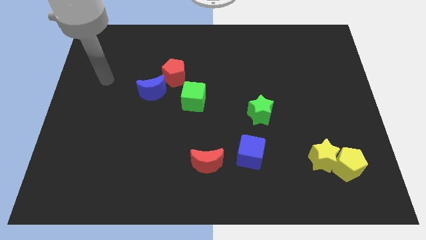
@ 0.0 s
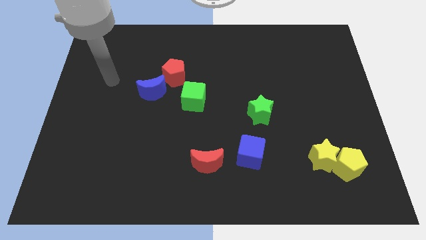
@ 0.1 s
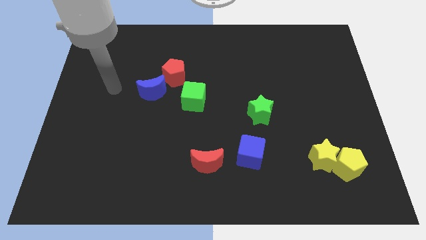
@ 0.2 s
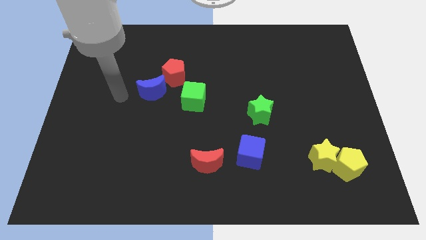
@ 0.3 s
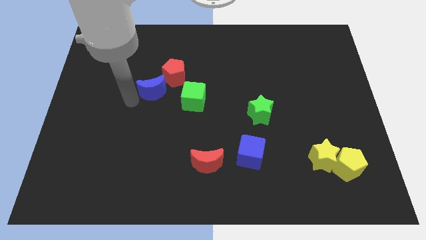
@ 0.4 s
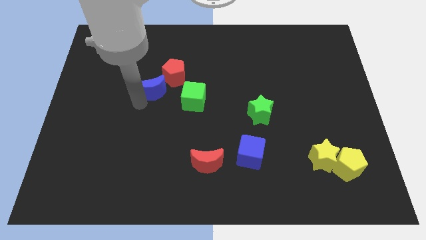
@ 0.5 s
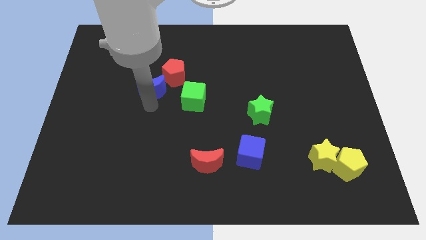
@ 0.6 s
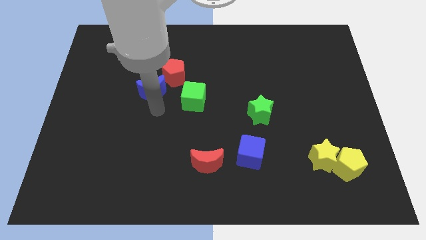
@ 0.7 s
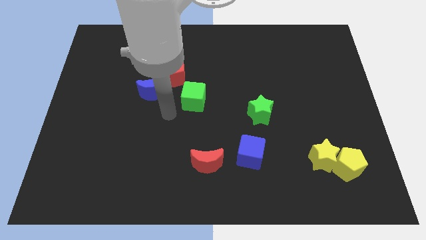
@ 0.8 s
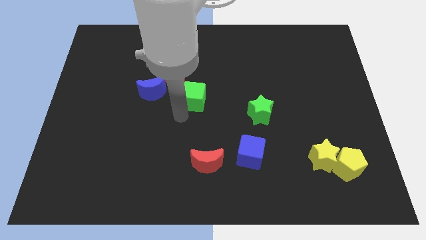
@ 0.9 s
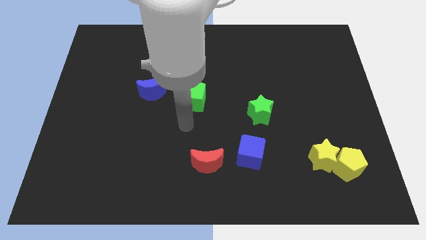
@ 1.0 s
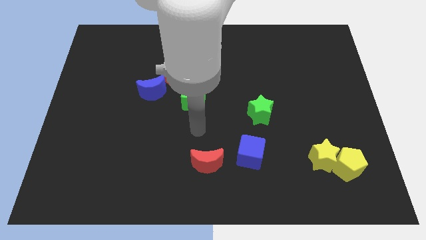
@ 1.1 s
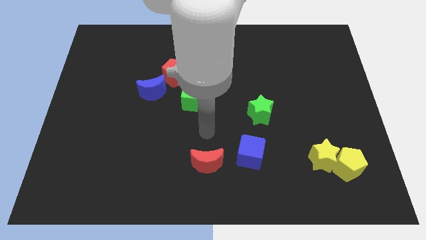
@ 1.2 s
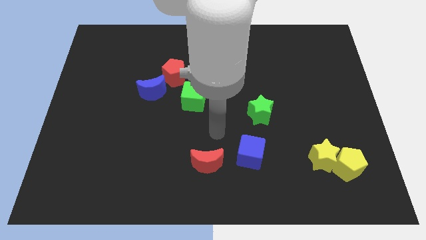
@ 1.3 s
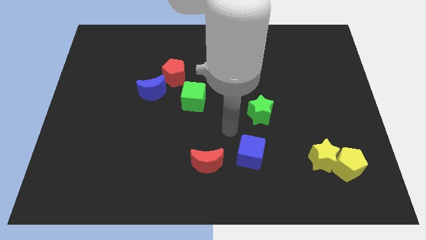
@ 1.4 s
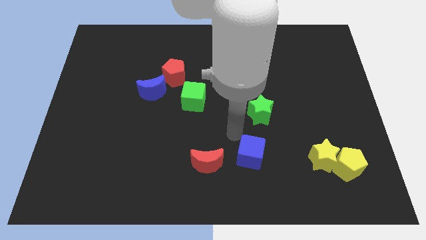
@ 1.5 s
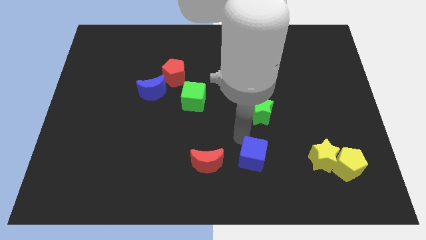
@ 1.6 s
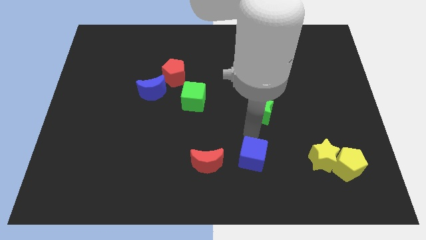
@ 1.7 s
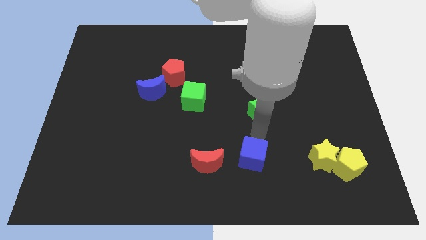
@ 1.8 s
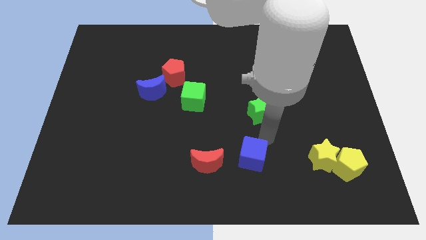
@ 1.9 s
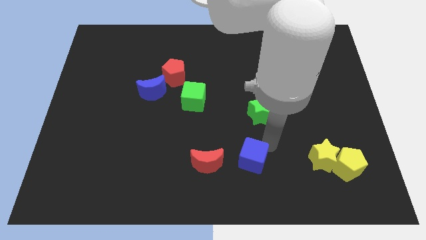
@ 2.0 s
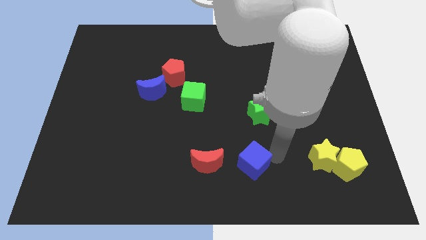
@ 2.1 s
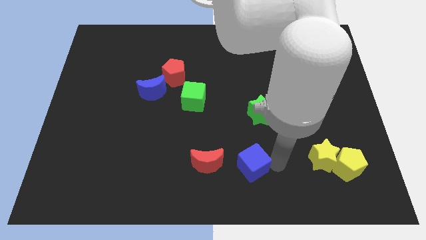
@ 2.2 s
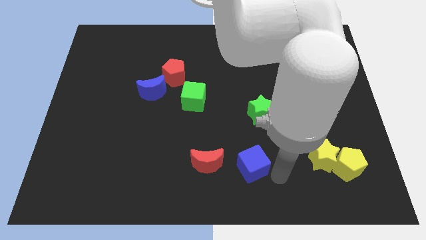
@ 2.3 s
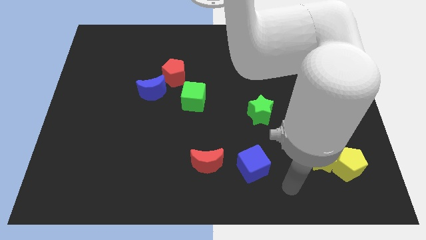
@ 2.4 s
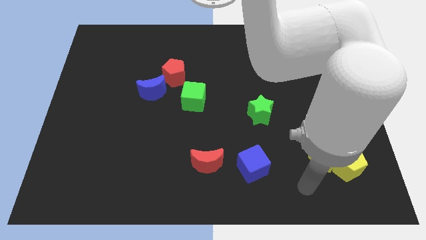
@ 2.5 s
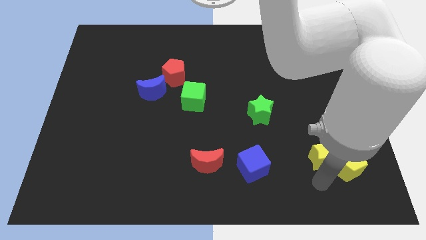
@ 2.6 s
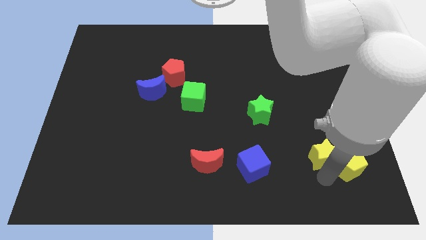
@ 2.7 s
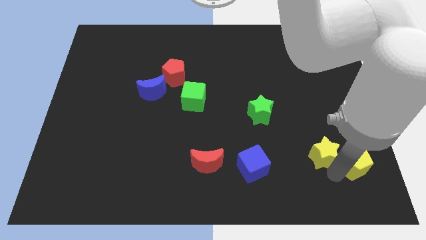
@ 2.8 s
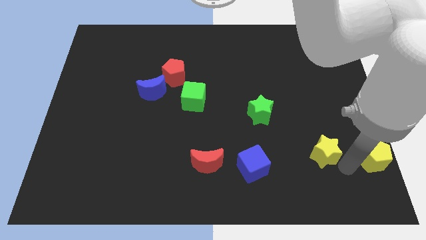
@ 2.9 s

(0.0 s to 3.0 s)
separate the yellow star from the yellow pentagon

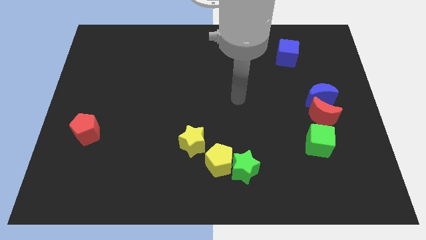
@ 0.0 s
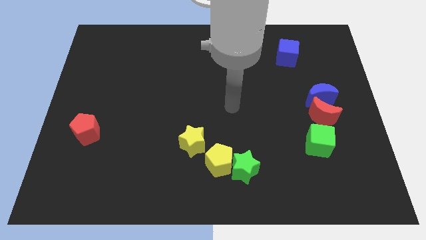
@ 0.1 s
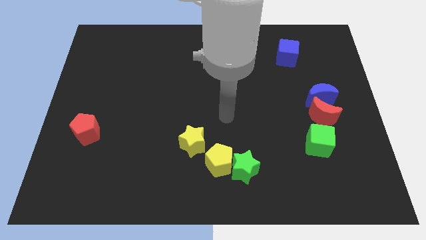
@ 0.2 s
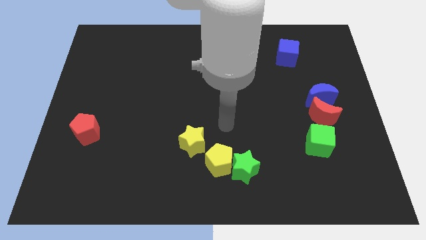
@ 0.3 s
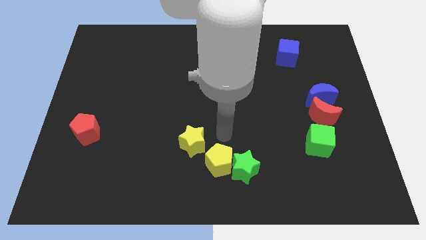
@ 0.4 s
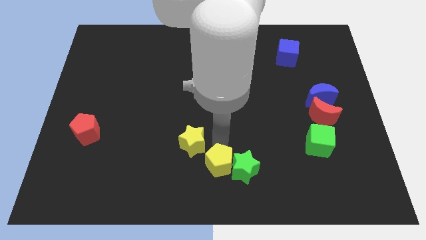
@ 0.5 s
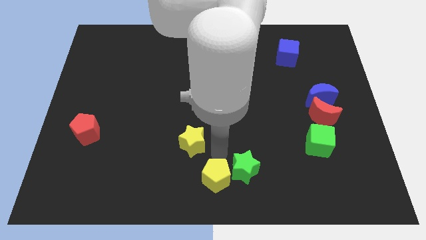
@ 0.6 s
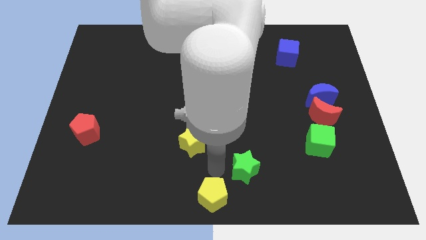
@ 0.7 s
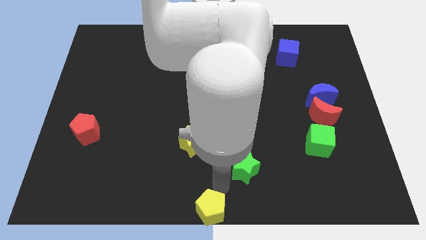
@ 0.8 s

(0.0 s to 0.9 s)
move the green star away from the yellow pentagon

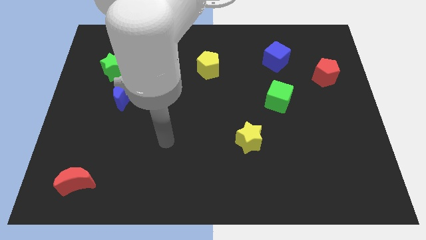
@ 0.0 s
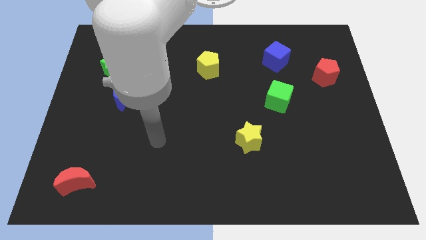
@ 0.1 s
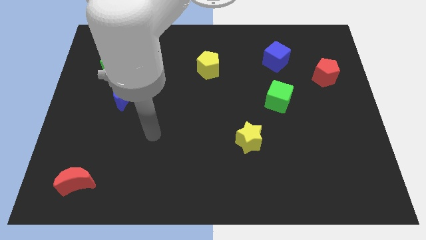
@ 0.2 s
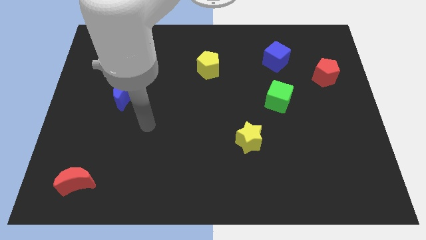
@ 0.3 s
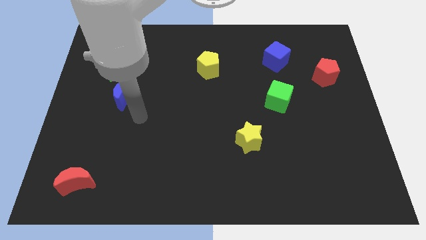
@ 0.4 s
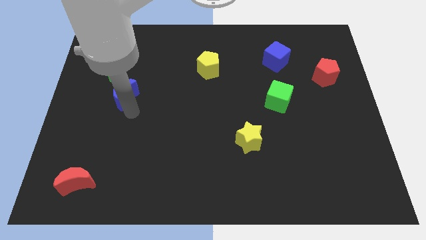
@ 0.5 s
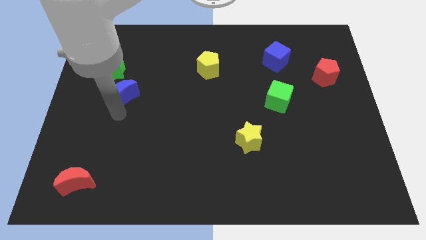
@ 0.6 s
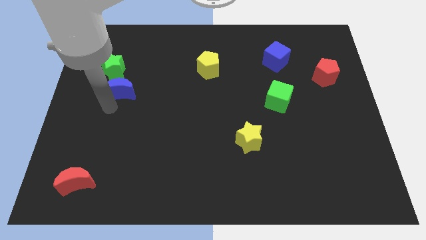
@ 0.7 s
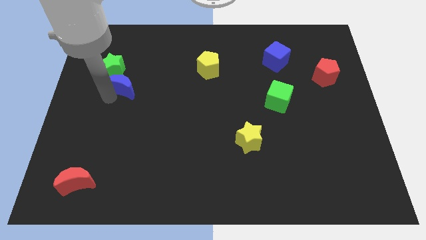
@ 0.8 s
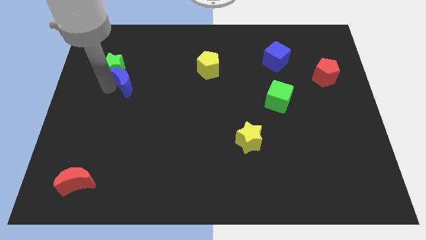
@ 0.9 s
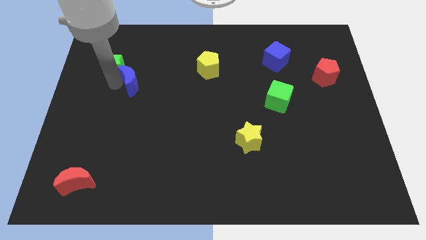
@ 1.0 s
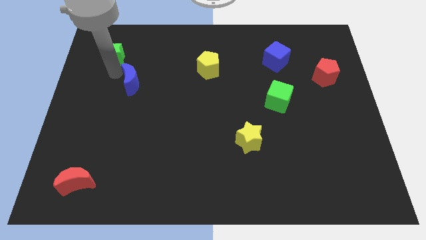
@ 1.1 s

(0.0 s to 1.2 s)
move the blue moon away from the green star

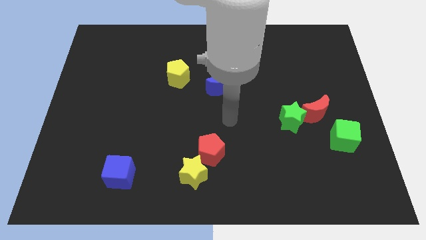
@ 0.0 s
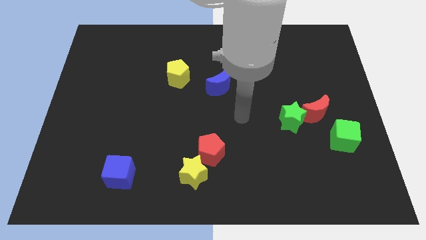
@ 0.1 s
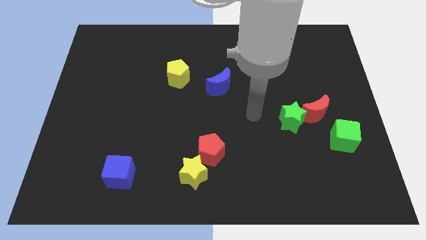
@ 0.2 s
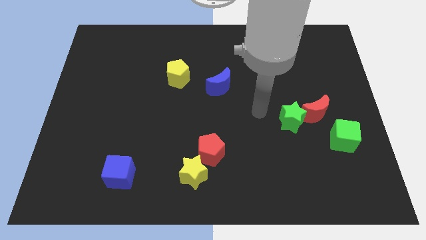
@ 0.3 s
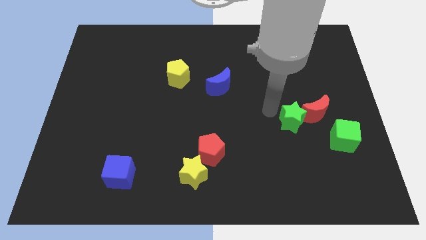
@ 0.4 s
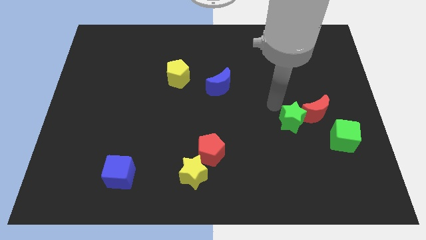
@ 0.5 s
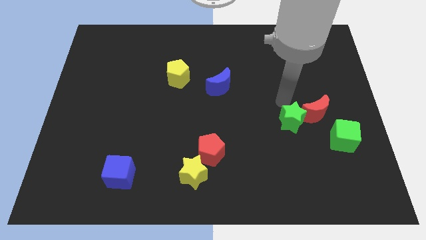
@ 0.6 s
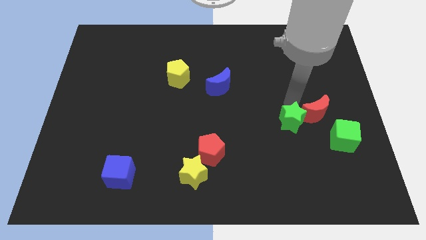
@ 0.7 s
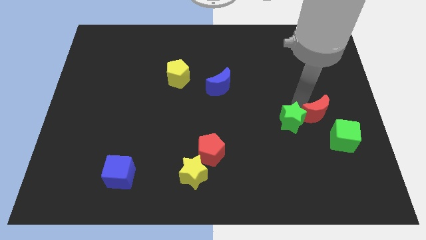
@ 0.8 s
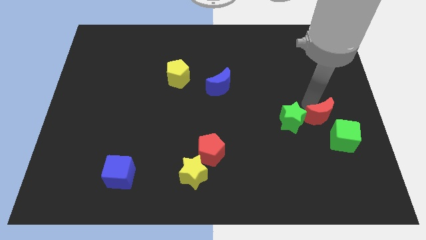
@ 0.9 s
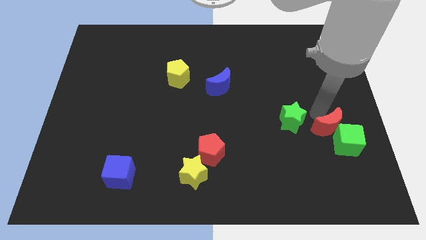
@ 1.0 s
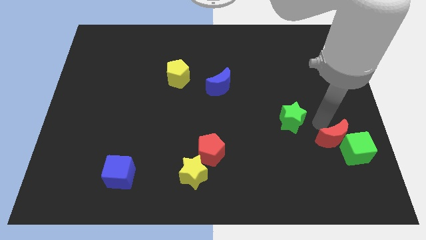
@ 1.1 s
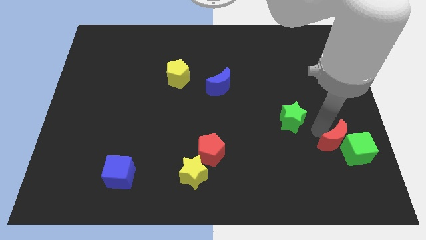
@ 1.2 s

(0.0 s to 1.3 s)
separate the green star from the red moon

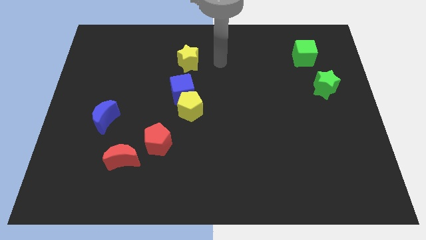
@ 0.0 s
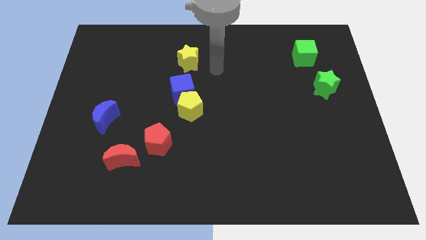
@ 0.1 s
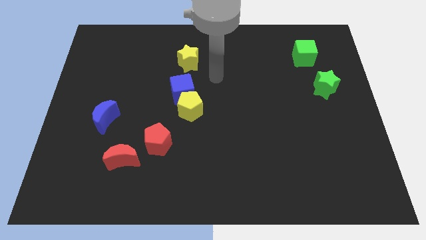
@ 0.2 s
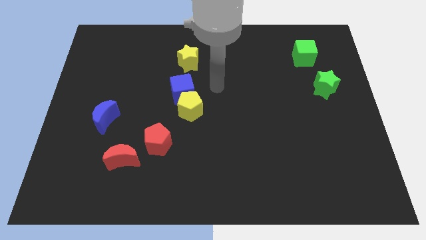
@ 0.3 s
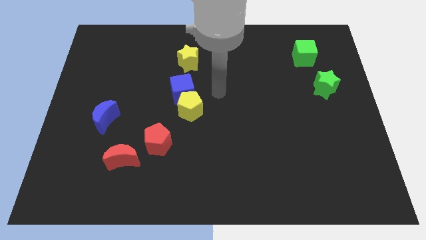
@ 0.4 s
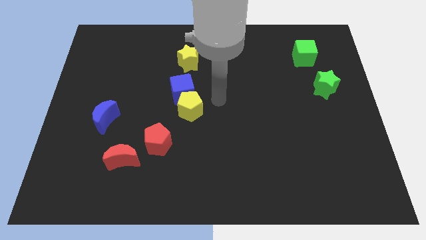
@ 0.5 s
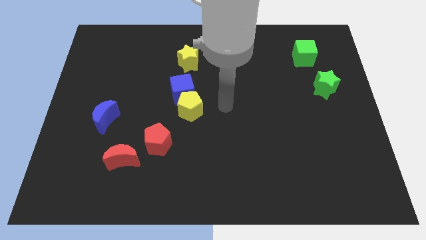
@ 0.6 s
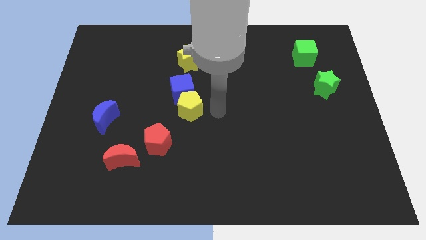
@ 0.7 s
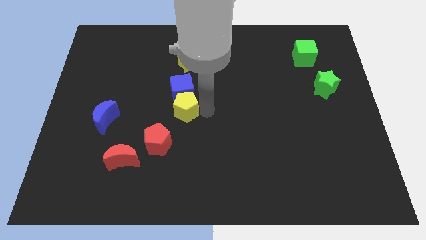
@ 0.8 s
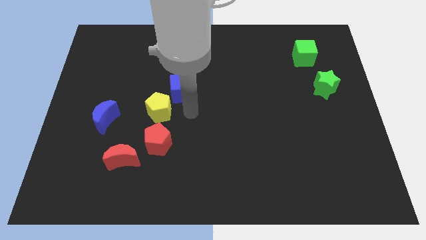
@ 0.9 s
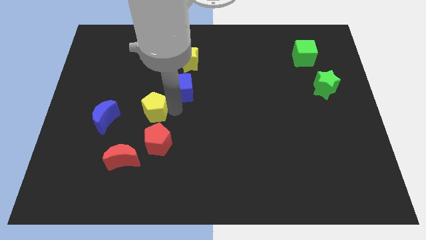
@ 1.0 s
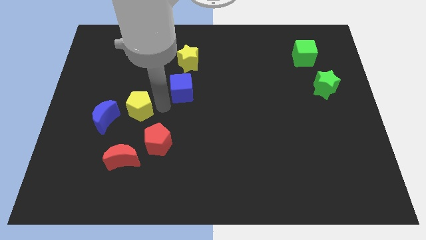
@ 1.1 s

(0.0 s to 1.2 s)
move the blue cube away from the yellow pentagon

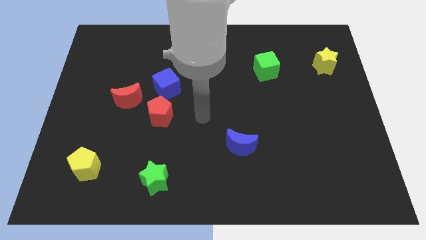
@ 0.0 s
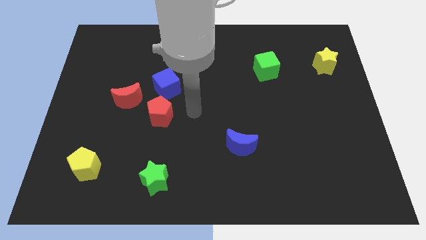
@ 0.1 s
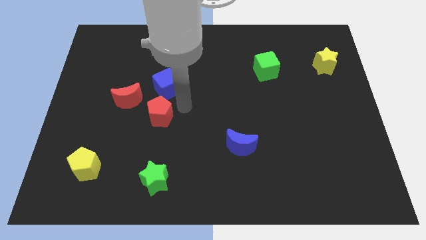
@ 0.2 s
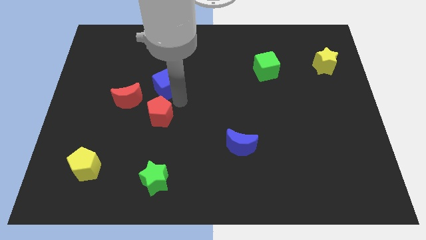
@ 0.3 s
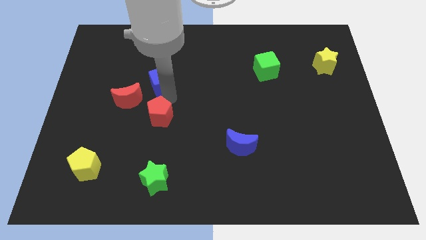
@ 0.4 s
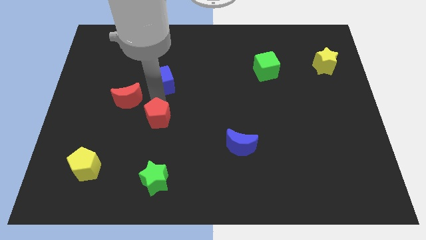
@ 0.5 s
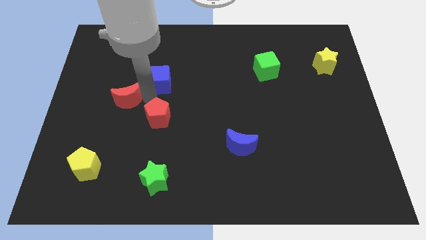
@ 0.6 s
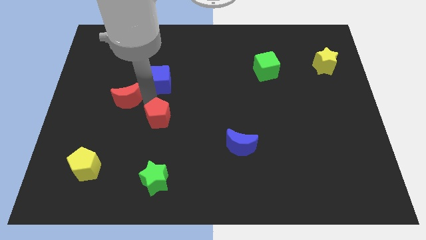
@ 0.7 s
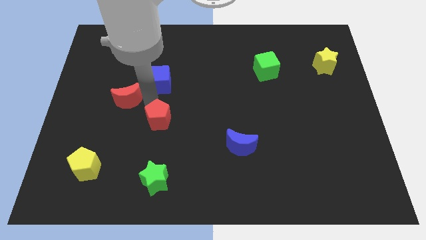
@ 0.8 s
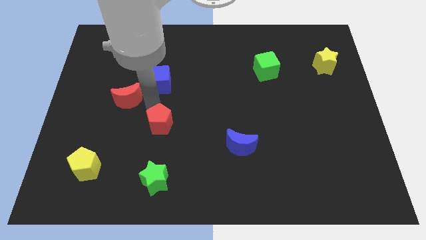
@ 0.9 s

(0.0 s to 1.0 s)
move the red pentagon away from the blue cube and red moon

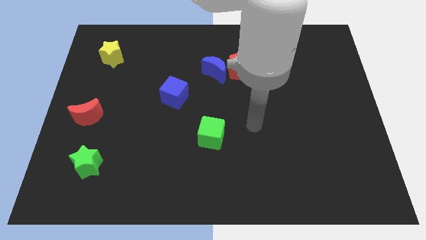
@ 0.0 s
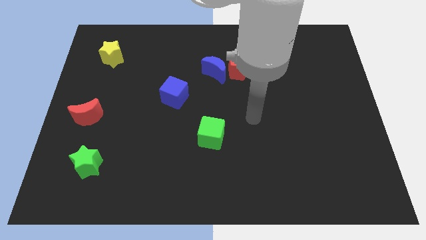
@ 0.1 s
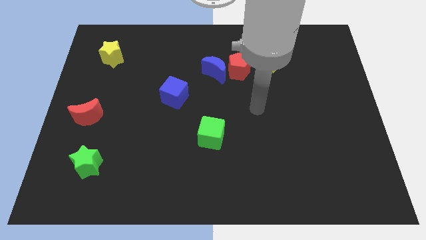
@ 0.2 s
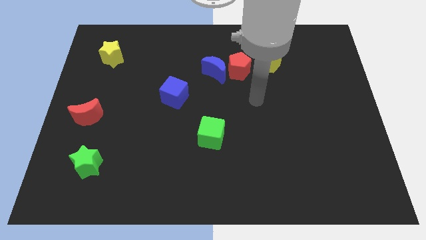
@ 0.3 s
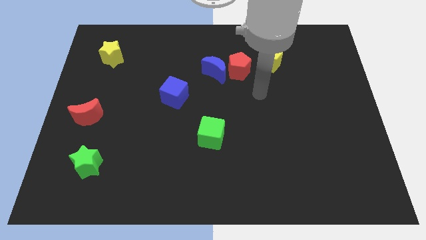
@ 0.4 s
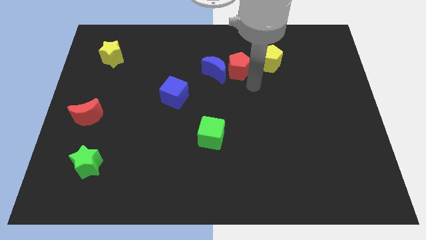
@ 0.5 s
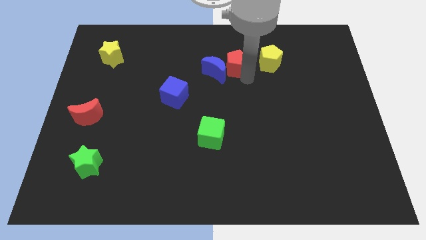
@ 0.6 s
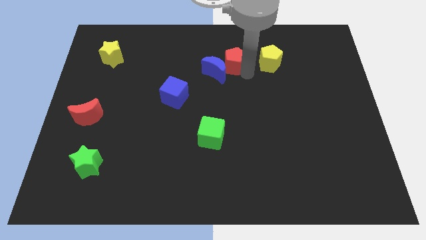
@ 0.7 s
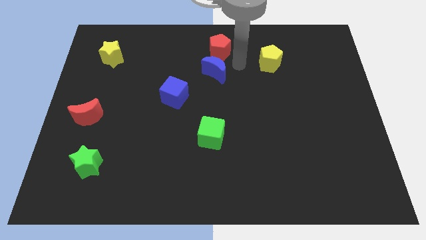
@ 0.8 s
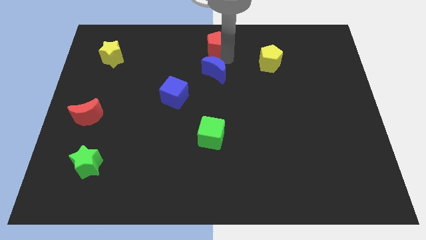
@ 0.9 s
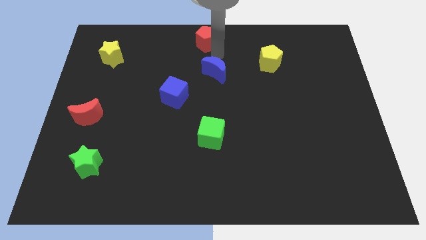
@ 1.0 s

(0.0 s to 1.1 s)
pull the blue moon apart from the red pentagon
